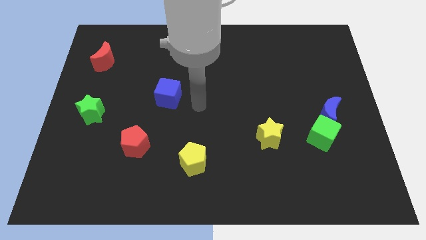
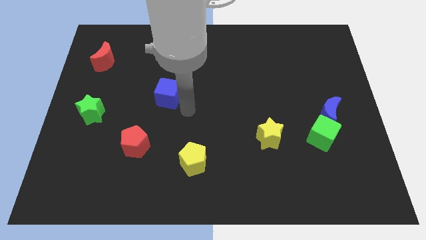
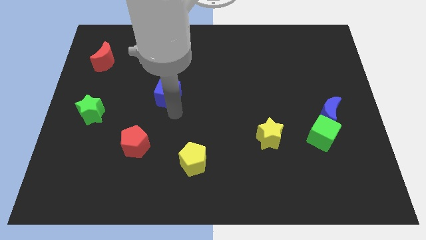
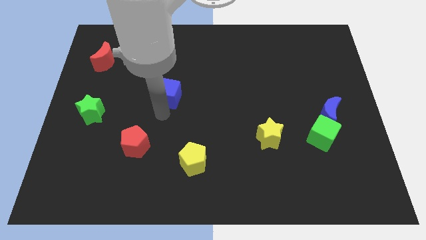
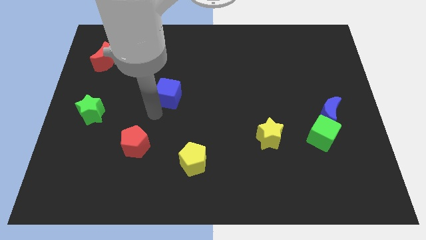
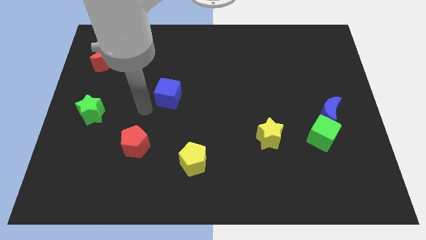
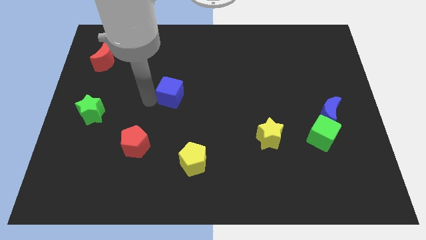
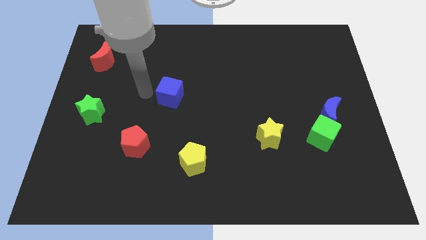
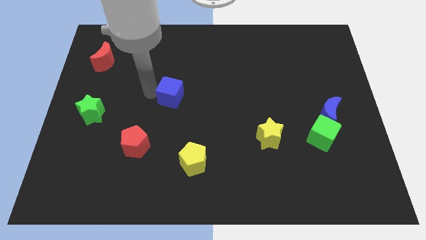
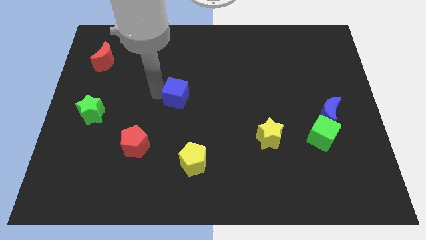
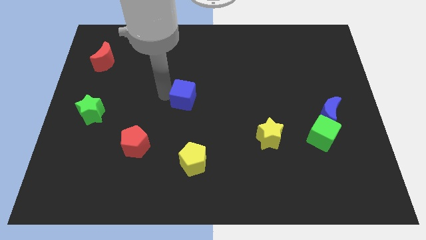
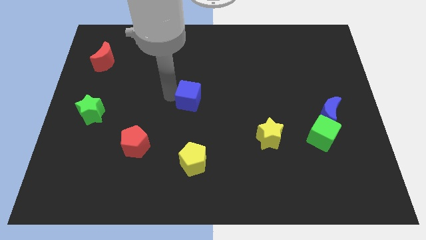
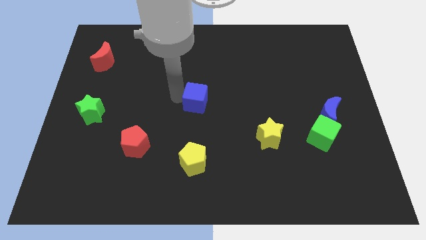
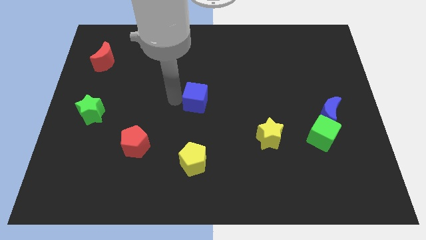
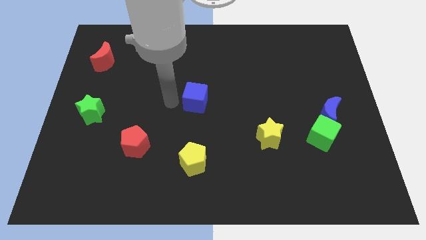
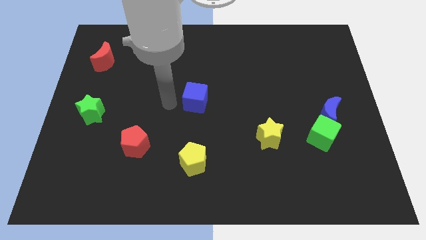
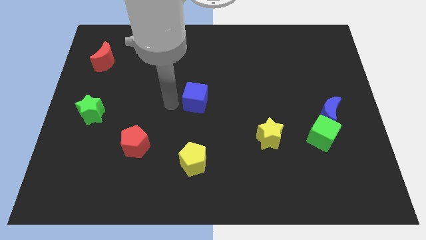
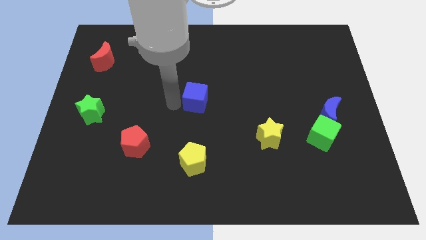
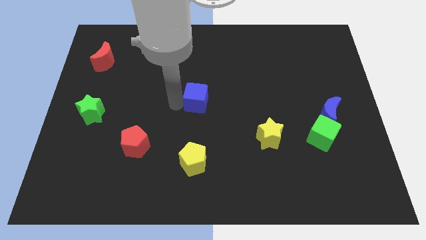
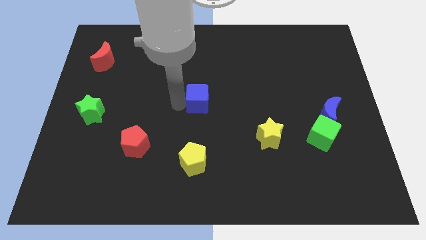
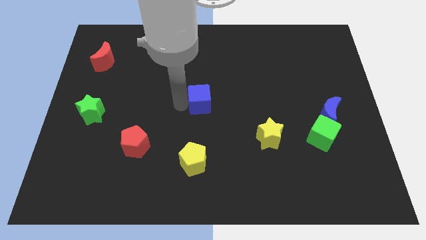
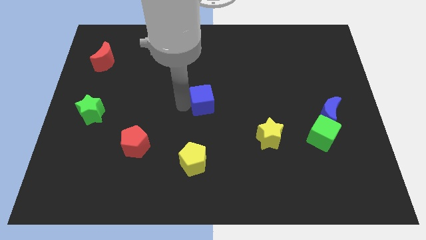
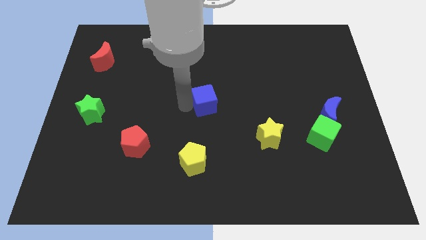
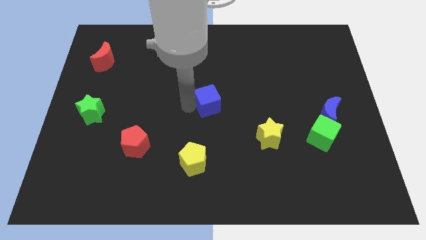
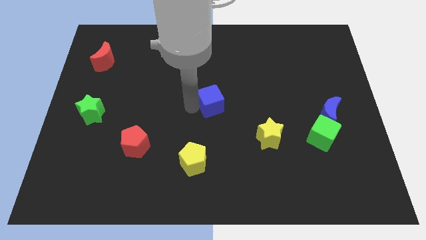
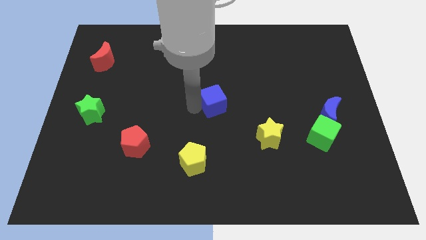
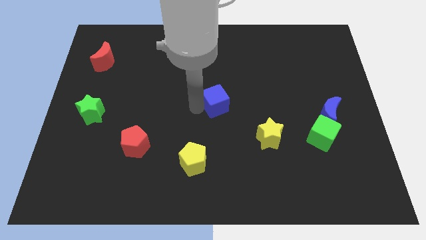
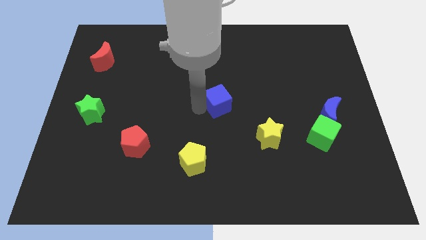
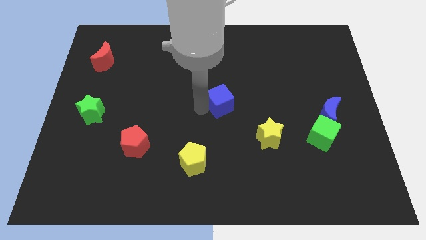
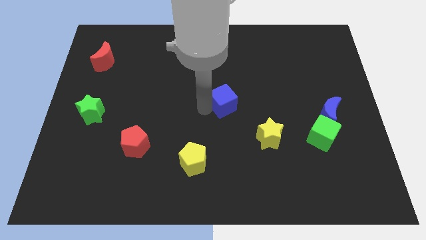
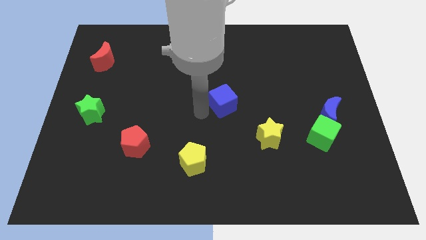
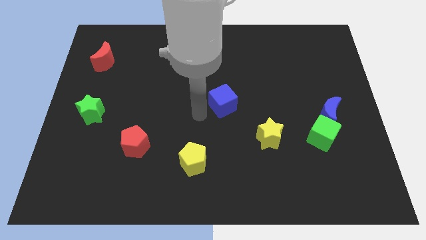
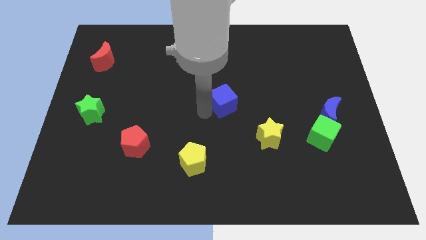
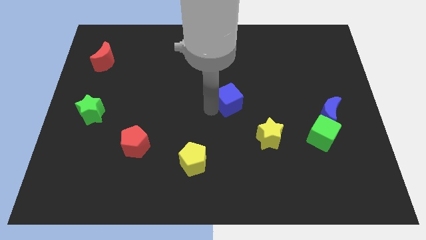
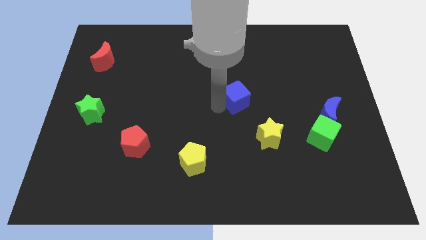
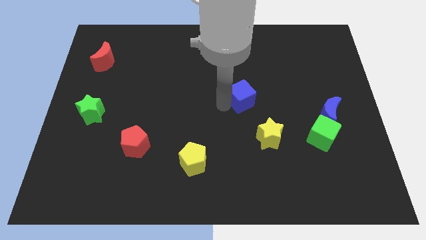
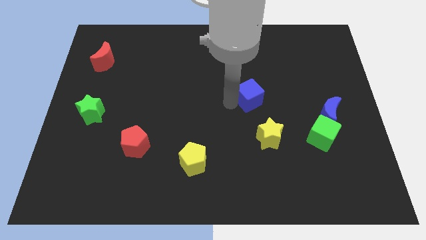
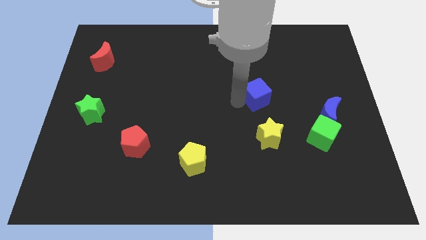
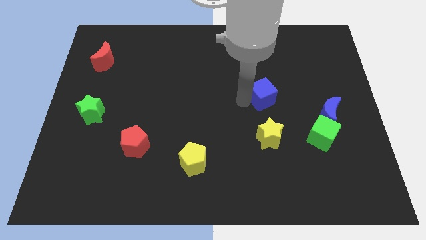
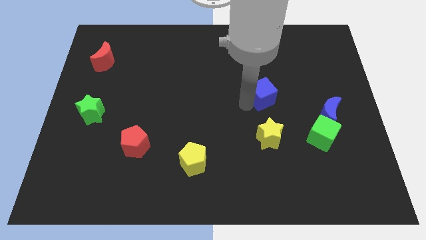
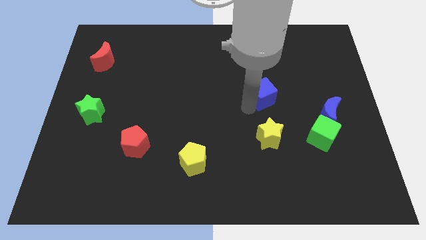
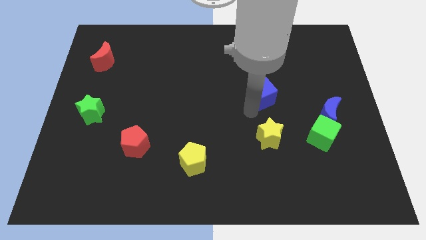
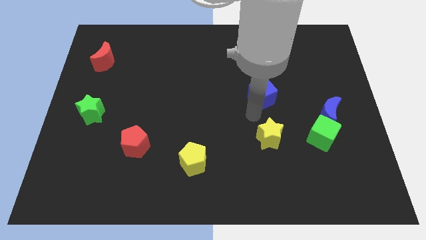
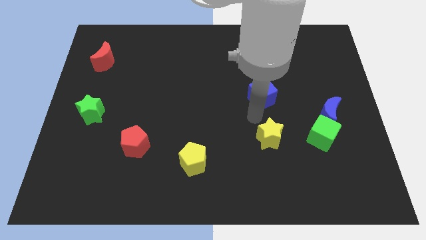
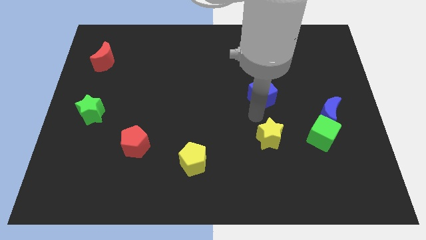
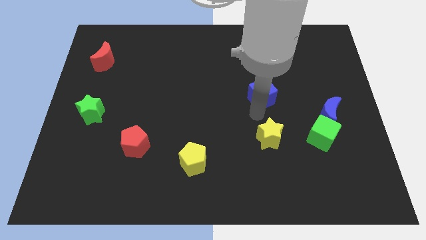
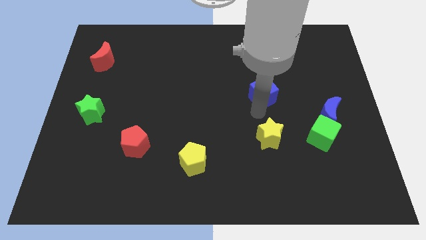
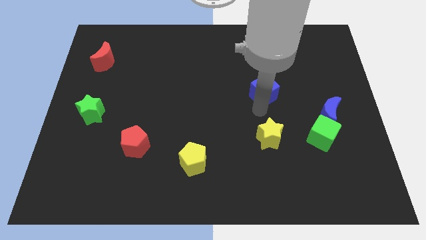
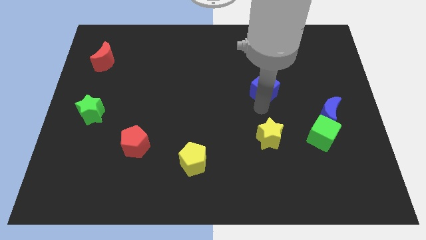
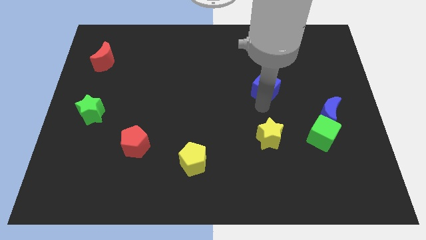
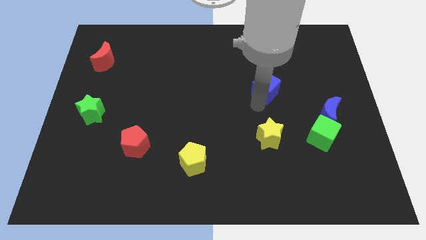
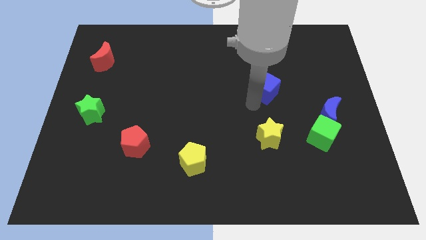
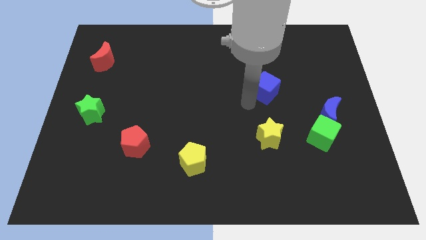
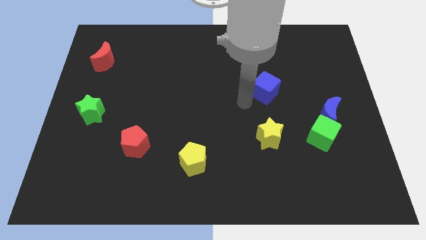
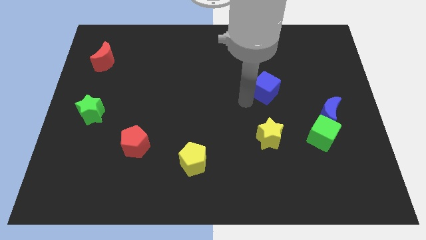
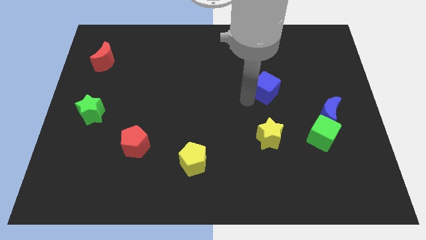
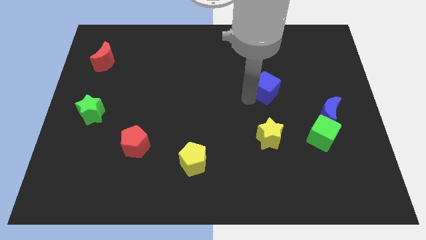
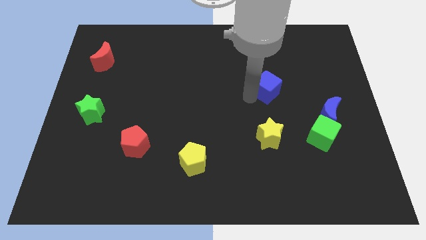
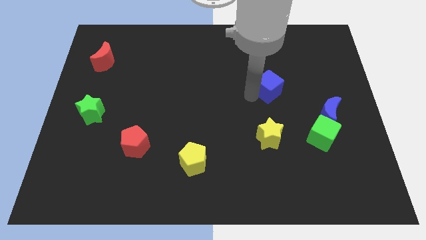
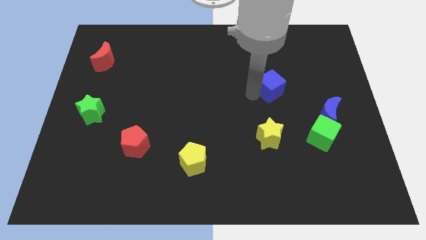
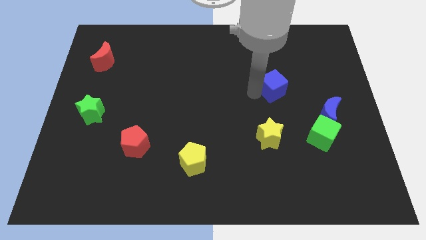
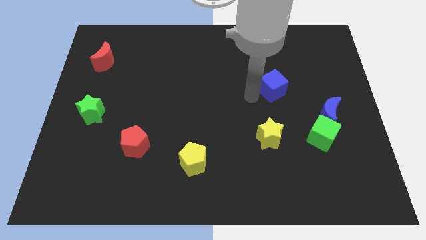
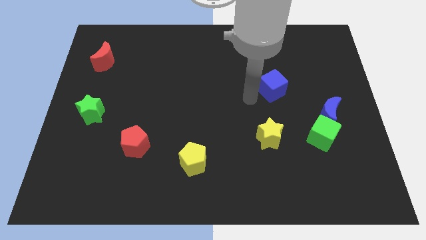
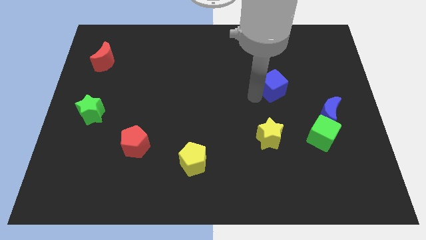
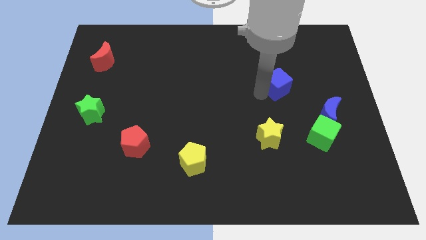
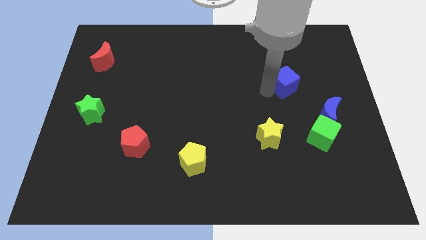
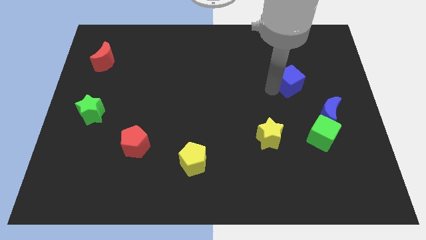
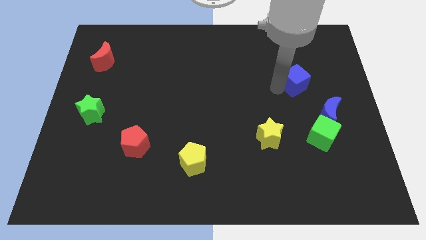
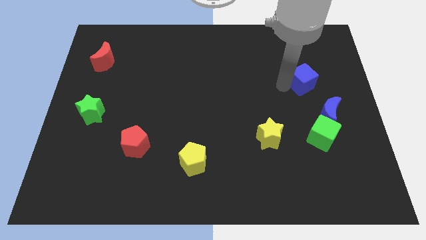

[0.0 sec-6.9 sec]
slide the blue cube to the top side of the blue moon
